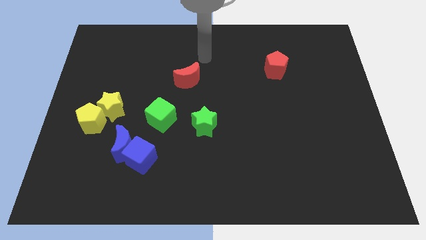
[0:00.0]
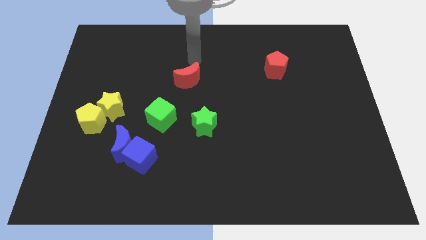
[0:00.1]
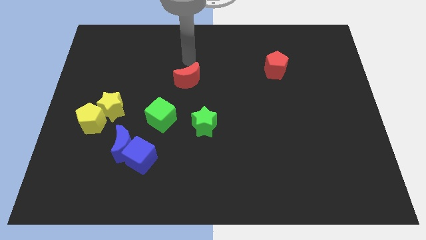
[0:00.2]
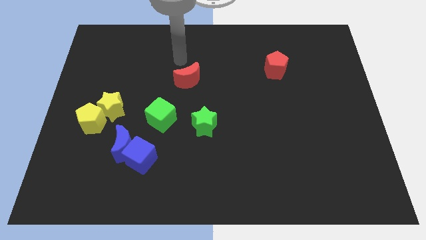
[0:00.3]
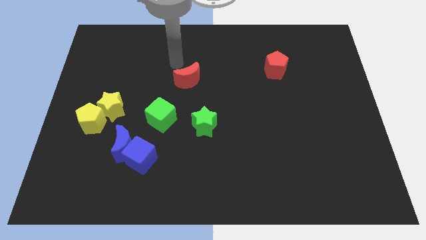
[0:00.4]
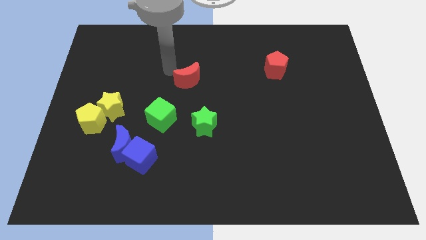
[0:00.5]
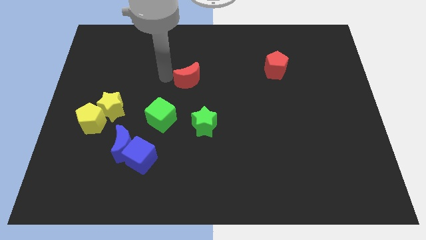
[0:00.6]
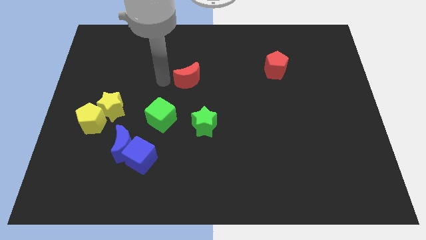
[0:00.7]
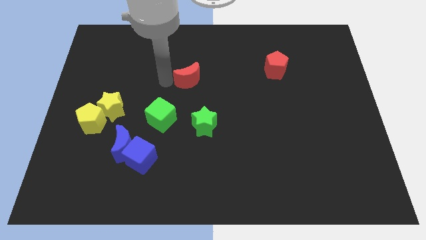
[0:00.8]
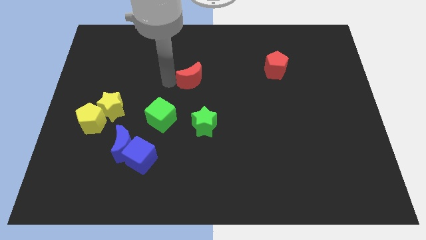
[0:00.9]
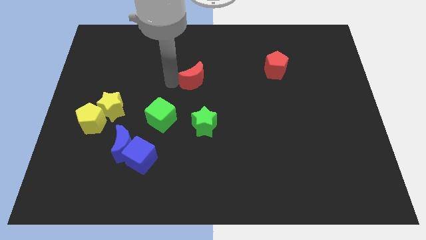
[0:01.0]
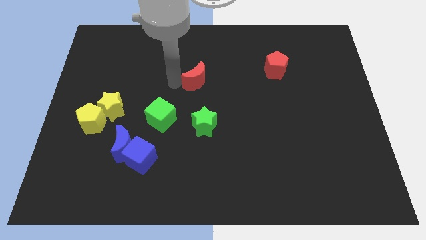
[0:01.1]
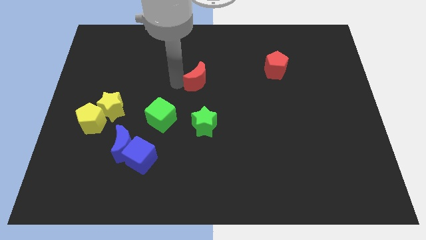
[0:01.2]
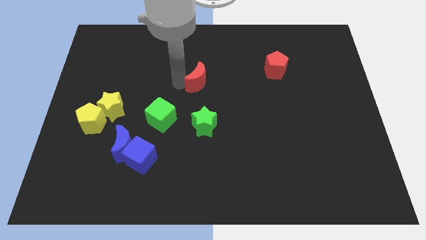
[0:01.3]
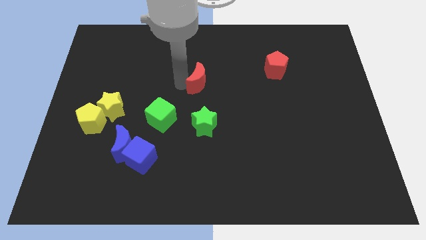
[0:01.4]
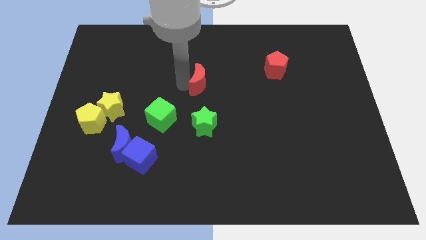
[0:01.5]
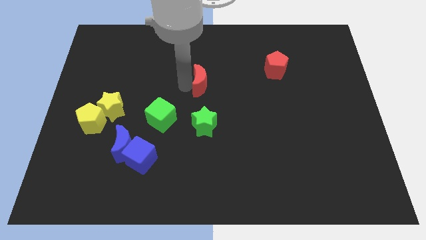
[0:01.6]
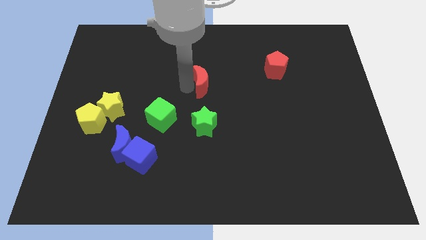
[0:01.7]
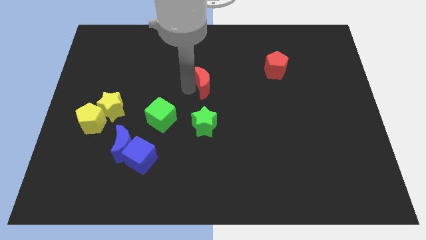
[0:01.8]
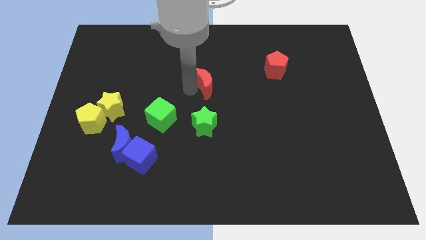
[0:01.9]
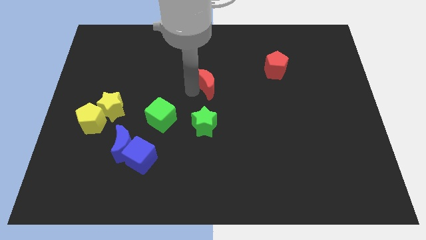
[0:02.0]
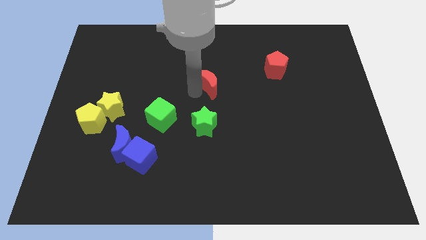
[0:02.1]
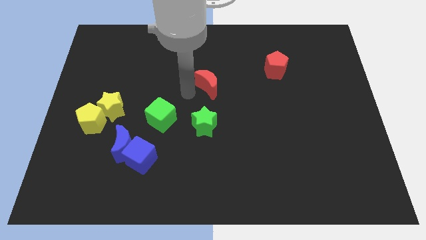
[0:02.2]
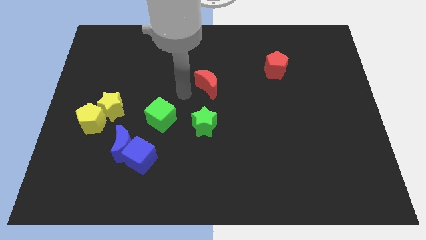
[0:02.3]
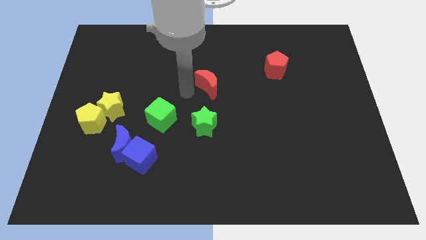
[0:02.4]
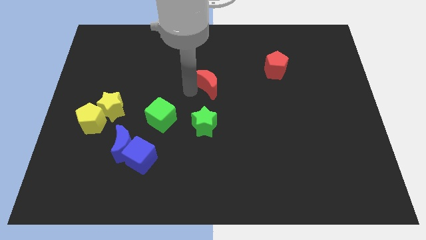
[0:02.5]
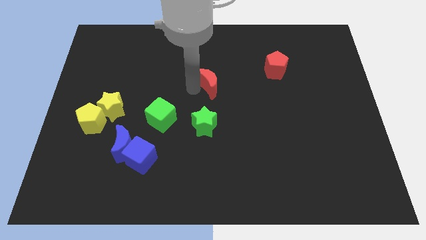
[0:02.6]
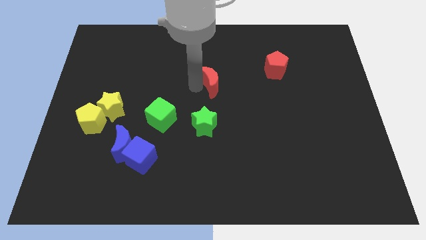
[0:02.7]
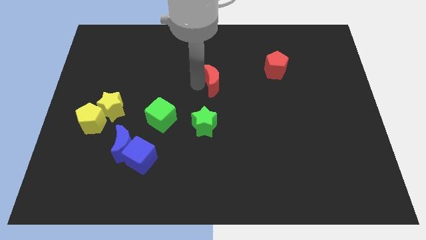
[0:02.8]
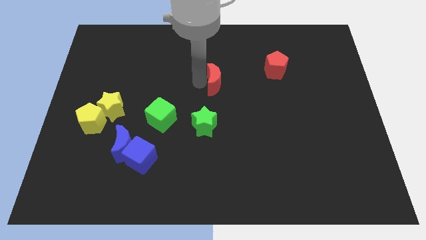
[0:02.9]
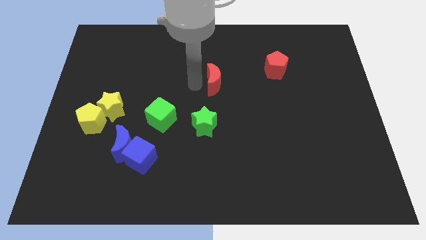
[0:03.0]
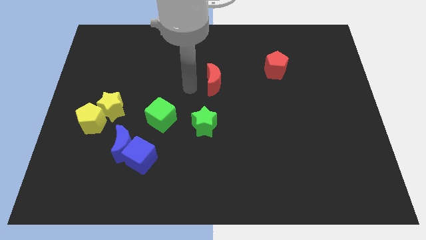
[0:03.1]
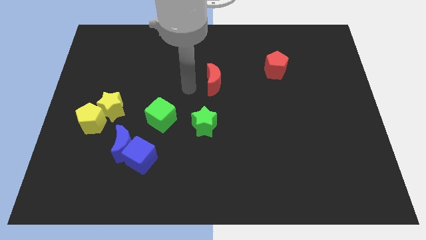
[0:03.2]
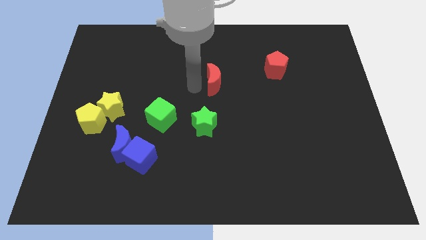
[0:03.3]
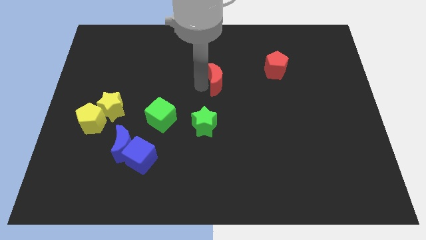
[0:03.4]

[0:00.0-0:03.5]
slide the red moon a little right

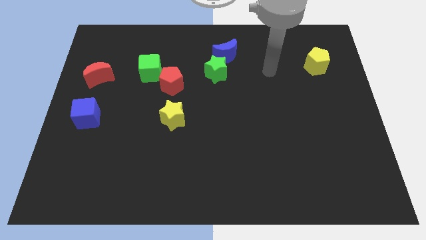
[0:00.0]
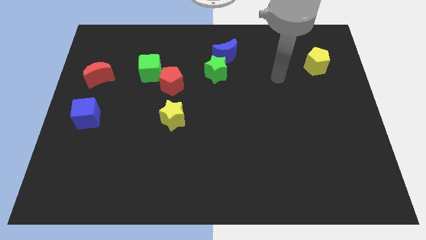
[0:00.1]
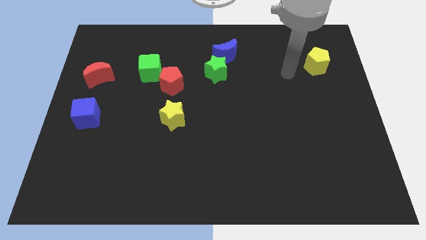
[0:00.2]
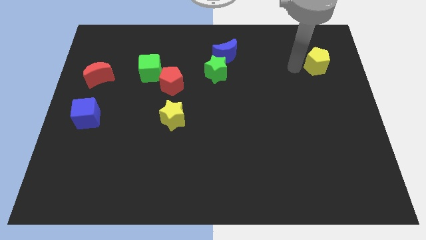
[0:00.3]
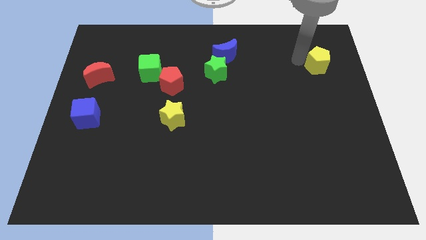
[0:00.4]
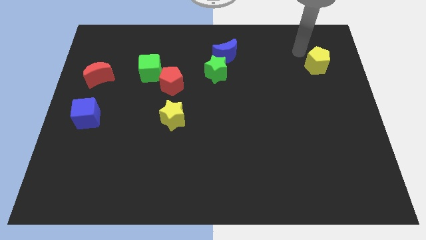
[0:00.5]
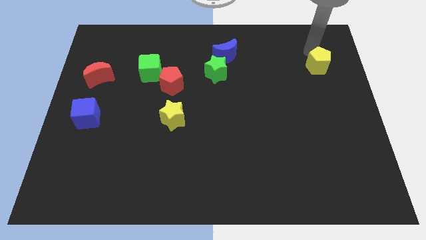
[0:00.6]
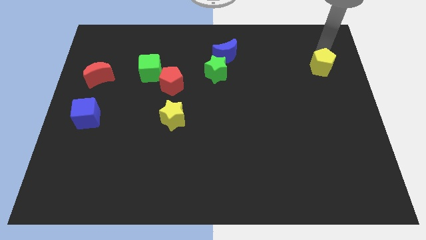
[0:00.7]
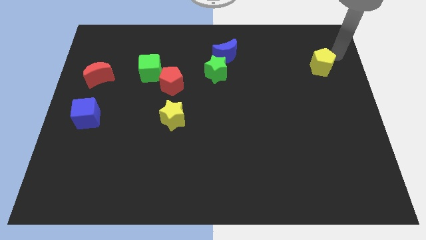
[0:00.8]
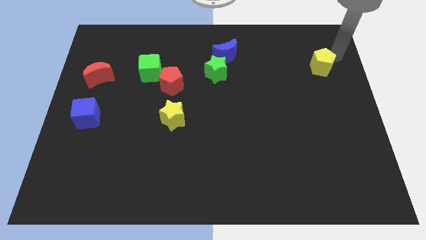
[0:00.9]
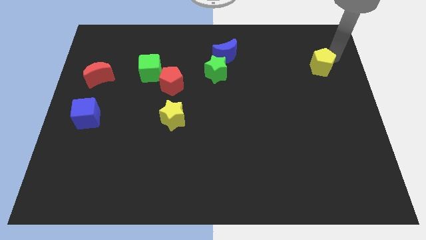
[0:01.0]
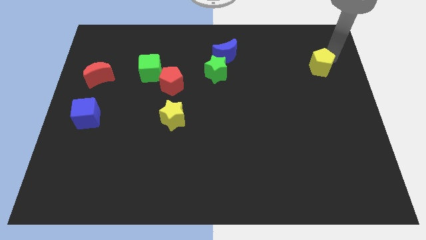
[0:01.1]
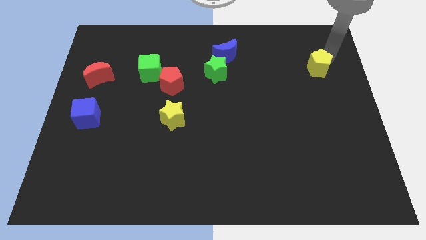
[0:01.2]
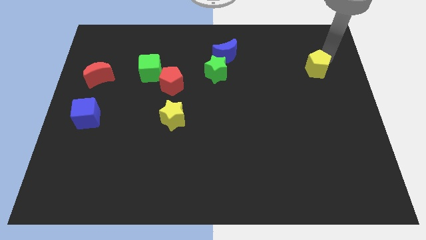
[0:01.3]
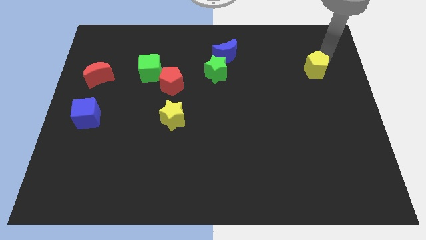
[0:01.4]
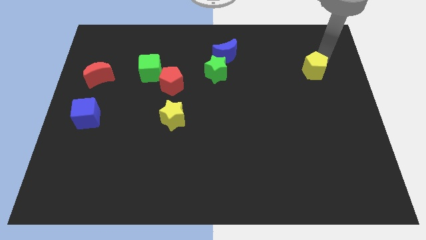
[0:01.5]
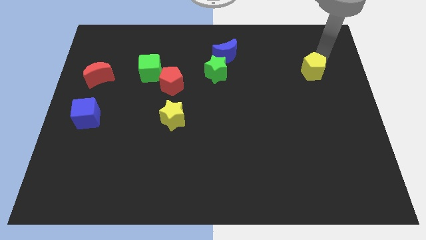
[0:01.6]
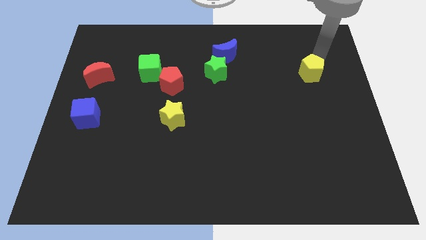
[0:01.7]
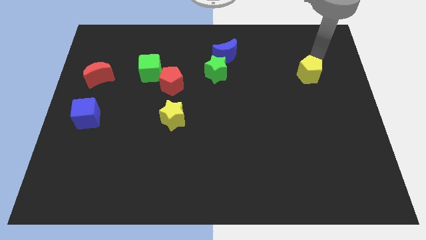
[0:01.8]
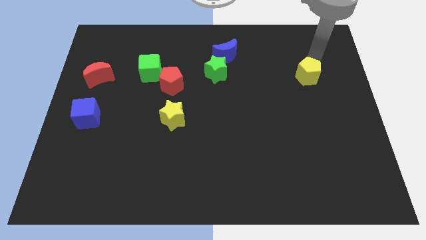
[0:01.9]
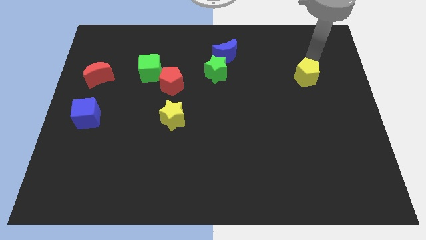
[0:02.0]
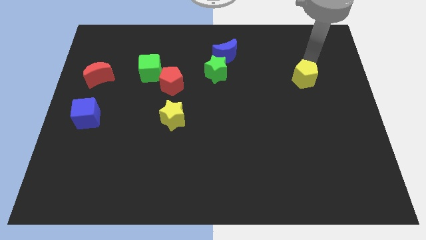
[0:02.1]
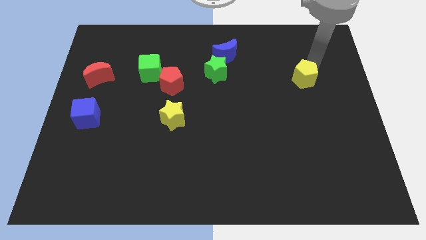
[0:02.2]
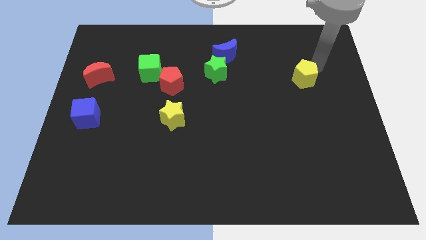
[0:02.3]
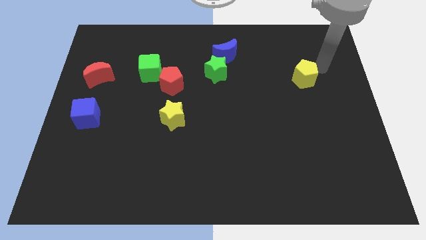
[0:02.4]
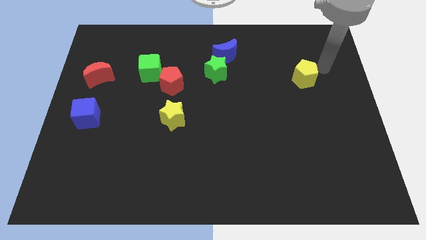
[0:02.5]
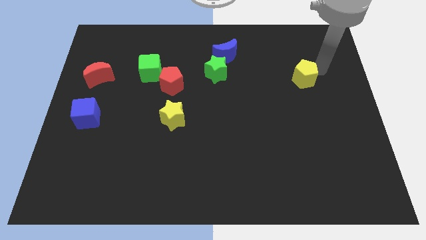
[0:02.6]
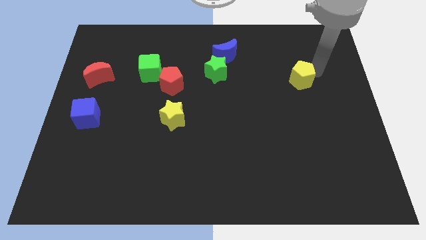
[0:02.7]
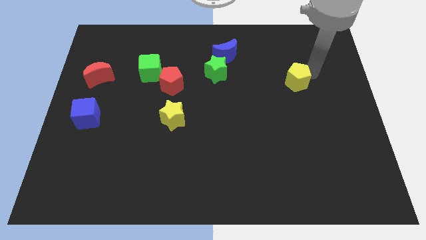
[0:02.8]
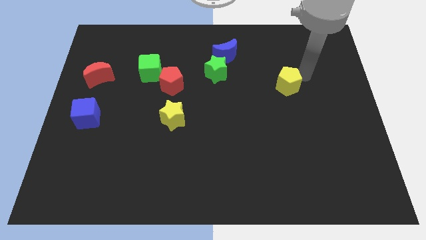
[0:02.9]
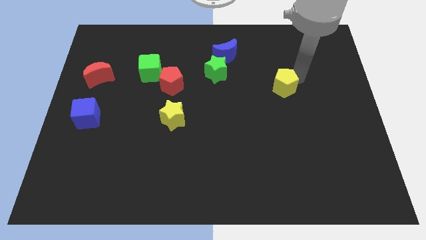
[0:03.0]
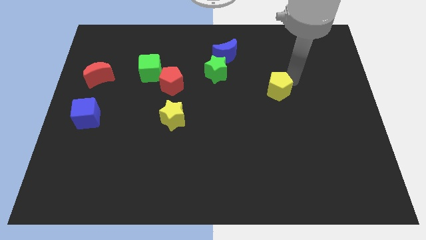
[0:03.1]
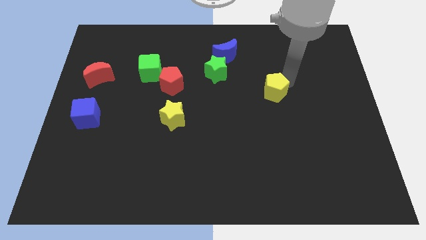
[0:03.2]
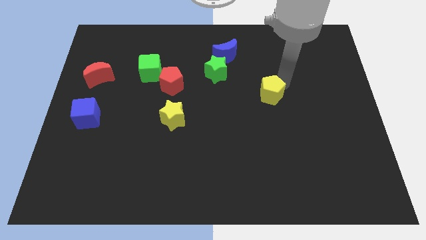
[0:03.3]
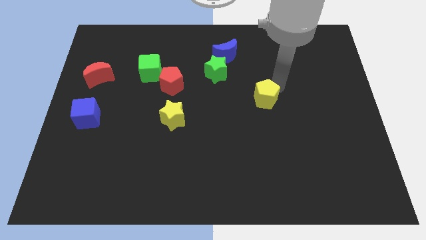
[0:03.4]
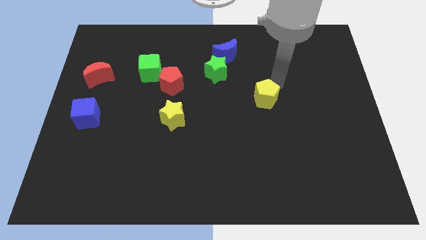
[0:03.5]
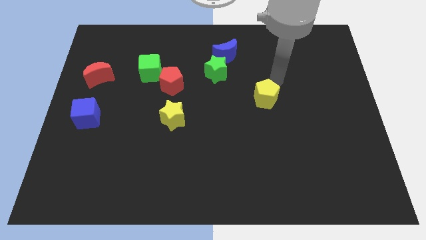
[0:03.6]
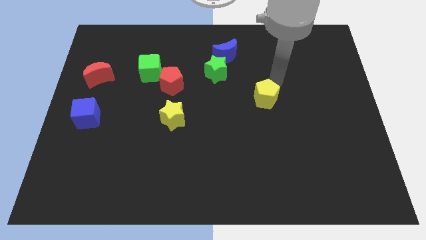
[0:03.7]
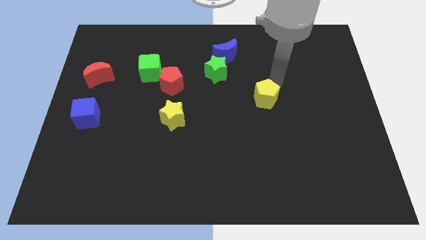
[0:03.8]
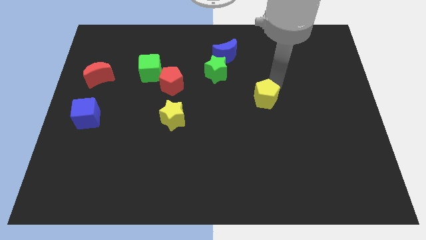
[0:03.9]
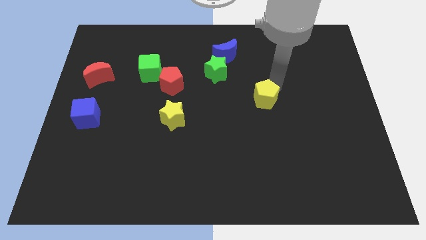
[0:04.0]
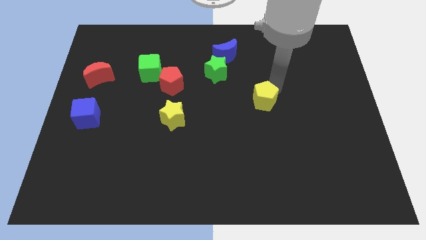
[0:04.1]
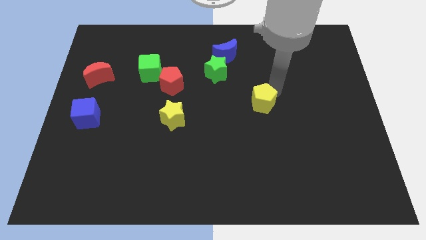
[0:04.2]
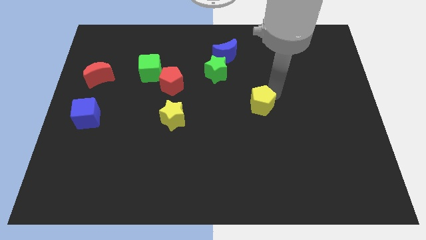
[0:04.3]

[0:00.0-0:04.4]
push the yellow pentagon downwards and to the left

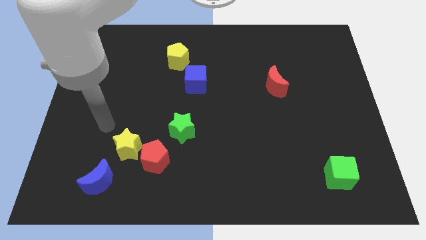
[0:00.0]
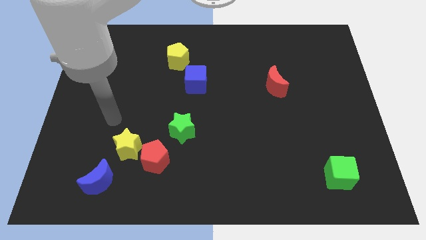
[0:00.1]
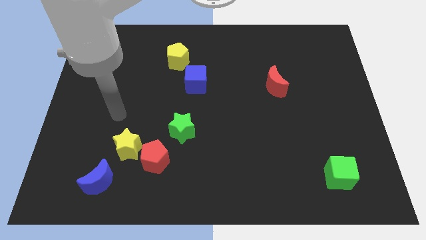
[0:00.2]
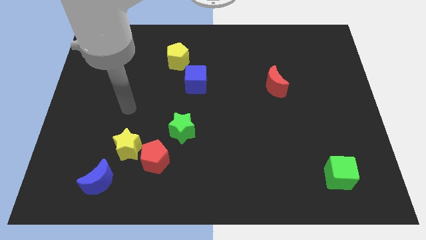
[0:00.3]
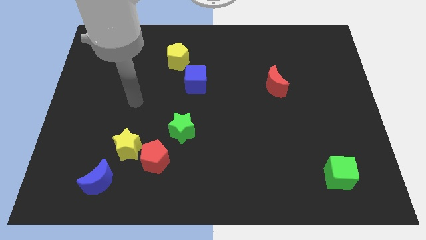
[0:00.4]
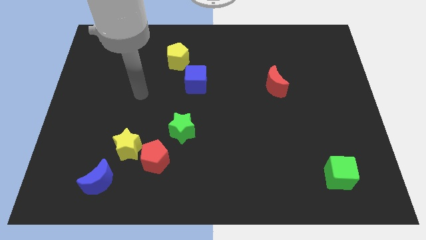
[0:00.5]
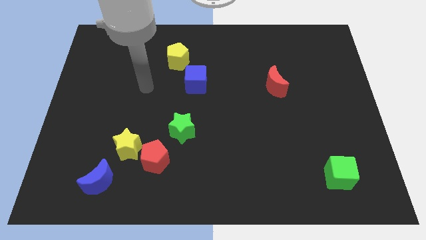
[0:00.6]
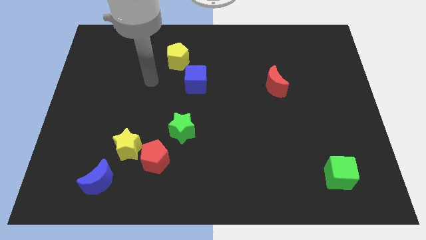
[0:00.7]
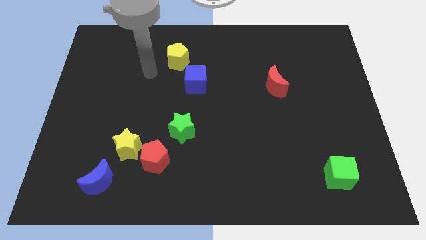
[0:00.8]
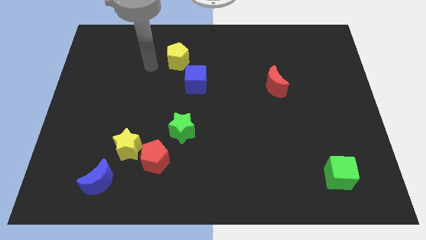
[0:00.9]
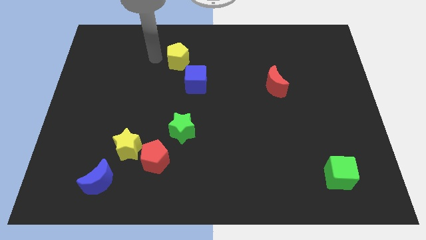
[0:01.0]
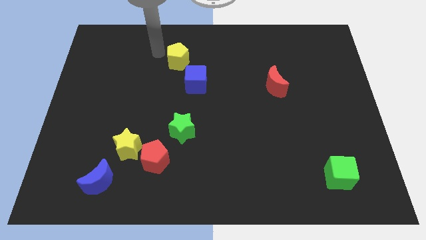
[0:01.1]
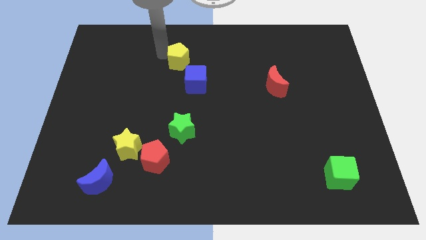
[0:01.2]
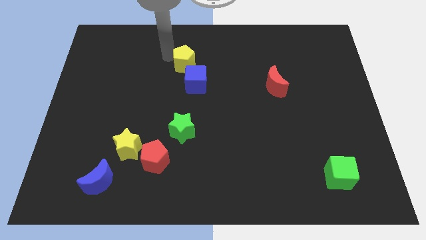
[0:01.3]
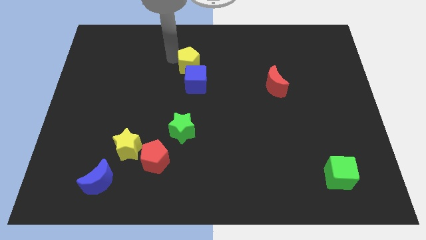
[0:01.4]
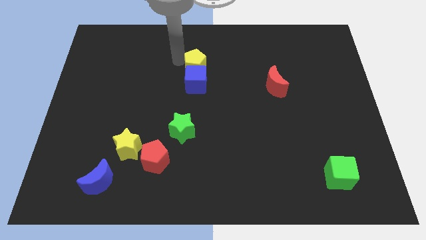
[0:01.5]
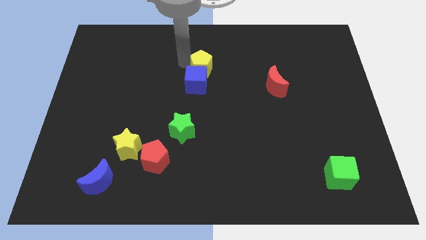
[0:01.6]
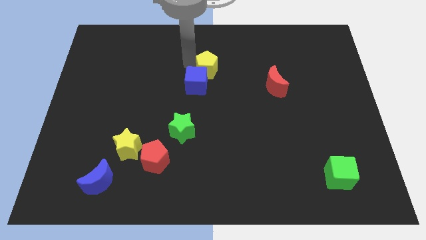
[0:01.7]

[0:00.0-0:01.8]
slide the yellow pentagon downwards and right diagonally somewhat
